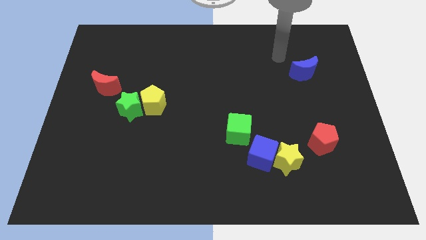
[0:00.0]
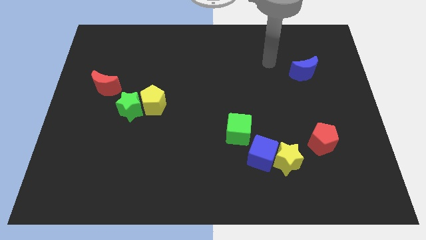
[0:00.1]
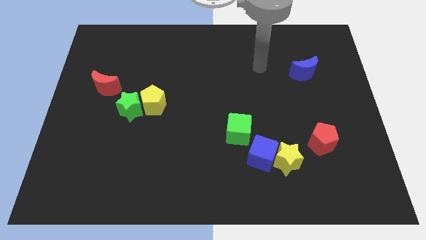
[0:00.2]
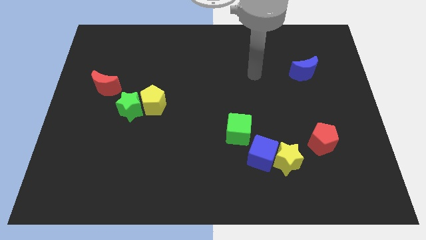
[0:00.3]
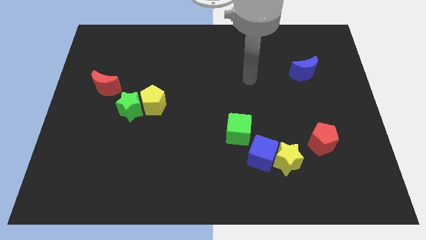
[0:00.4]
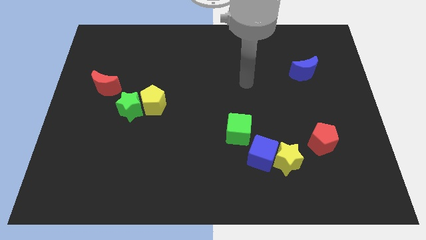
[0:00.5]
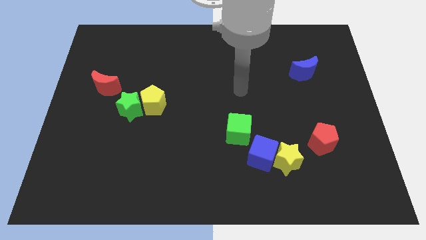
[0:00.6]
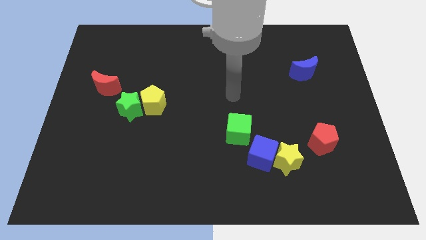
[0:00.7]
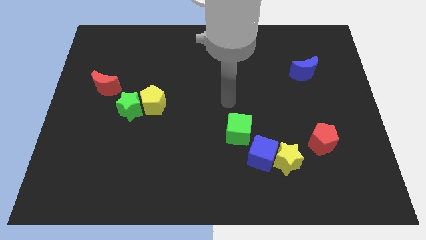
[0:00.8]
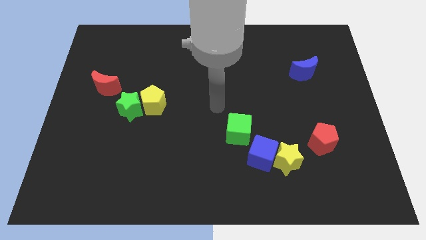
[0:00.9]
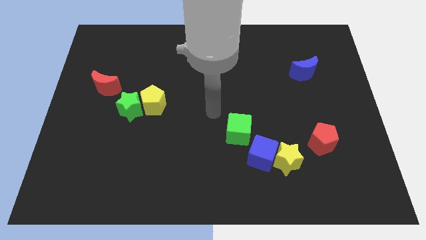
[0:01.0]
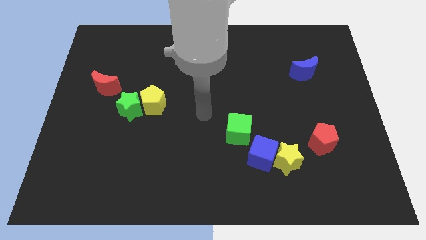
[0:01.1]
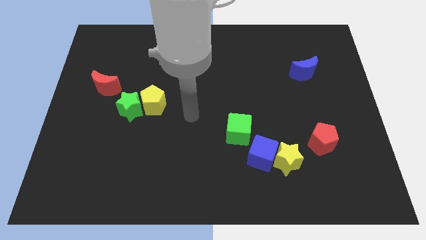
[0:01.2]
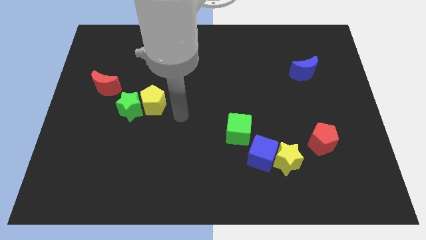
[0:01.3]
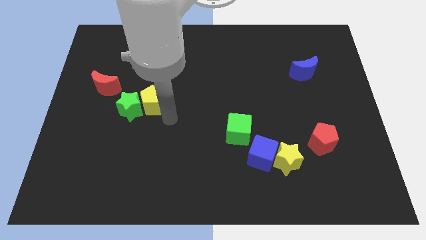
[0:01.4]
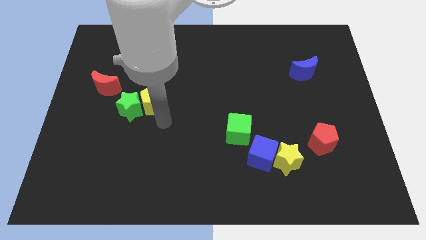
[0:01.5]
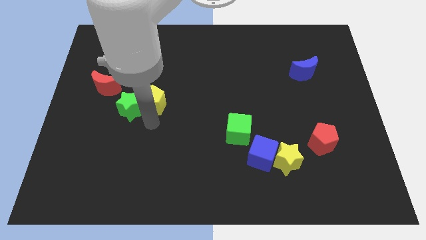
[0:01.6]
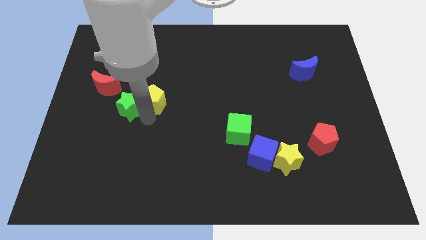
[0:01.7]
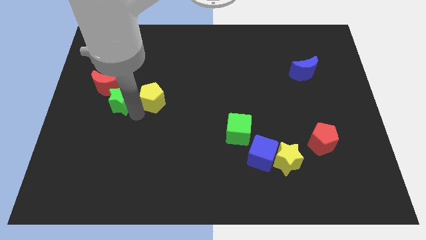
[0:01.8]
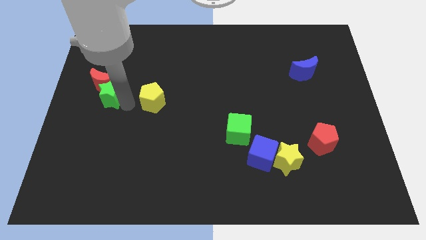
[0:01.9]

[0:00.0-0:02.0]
pull the yellow pentagon apart from the green star

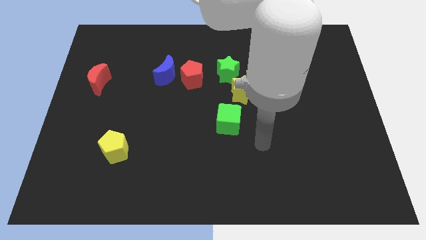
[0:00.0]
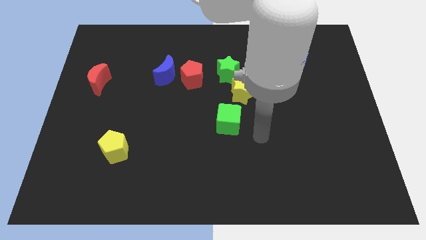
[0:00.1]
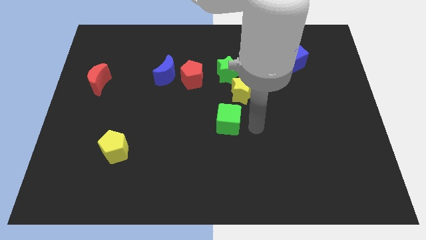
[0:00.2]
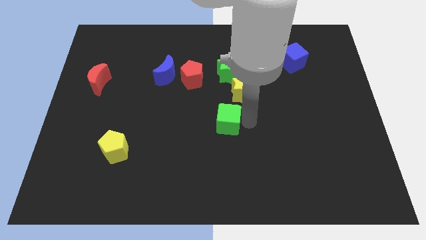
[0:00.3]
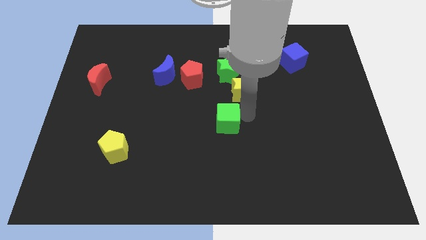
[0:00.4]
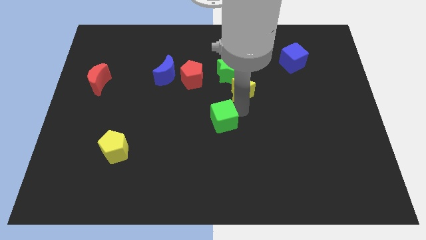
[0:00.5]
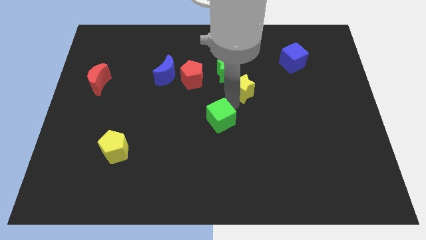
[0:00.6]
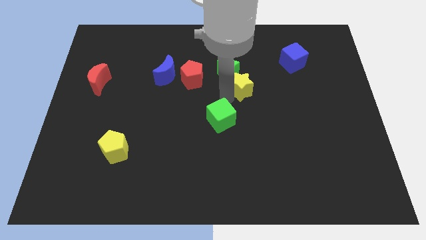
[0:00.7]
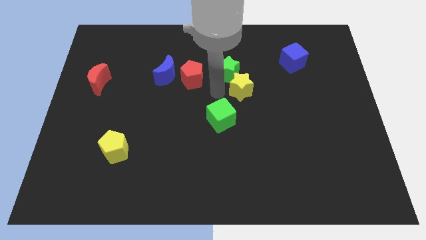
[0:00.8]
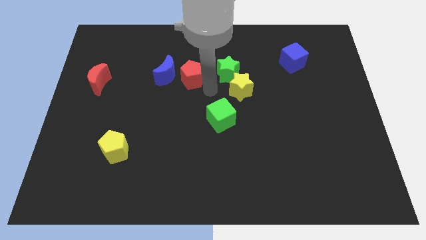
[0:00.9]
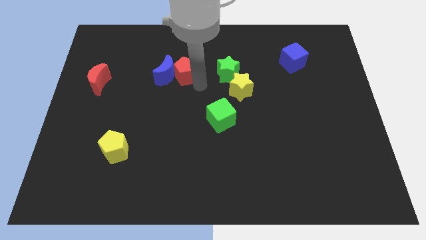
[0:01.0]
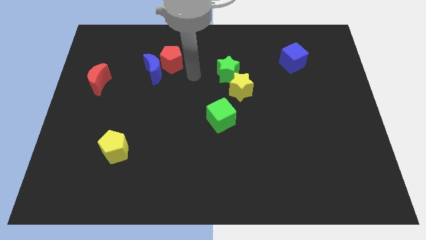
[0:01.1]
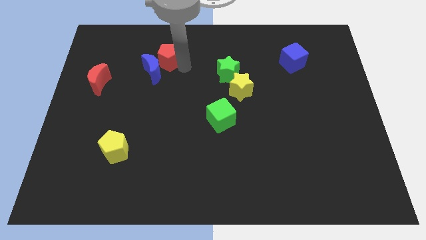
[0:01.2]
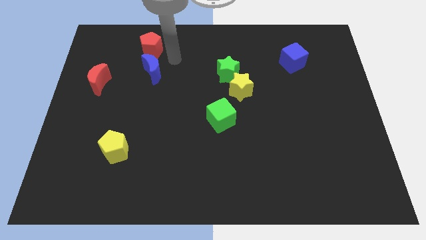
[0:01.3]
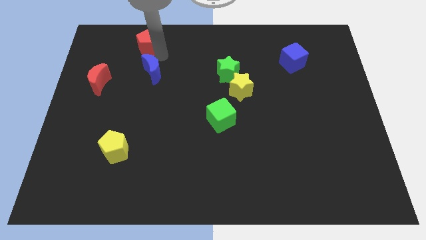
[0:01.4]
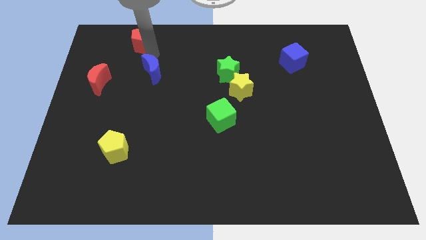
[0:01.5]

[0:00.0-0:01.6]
move the blue moon away from the red pentagon

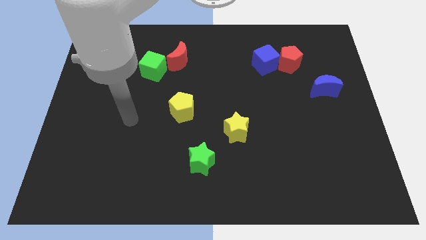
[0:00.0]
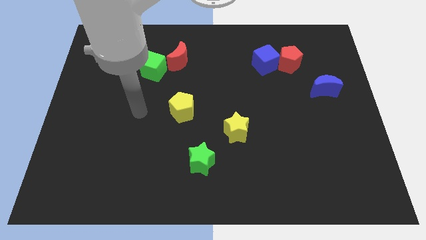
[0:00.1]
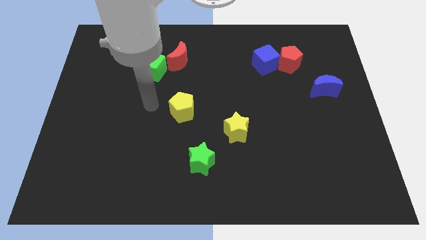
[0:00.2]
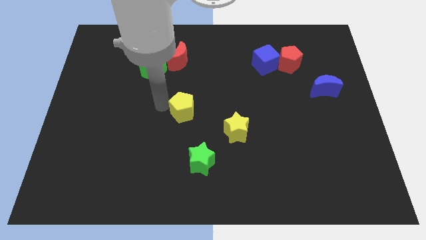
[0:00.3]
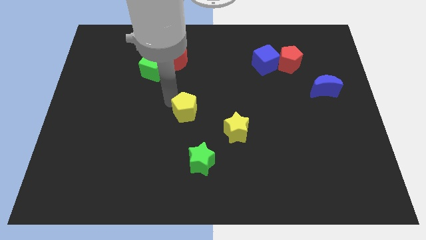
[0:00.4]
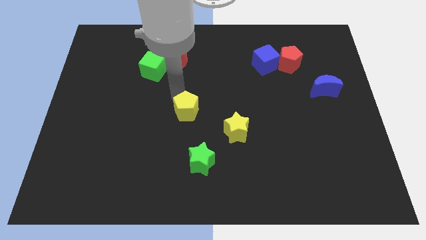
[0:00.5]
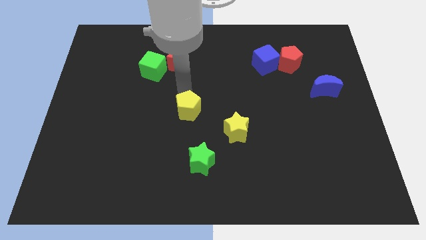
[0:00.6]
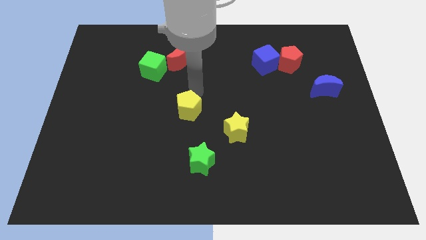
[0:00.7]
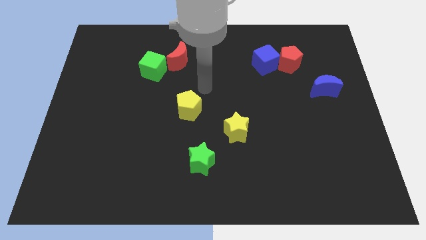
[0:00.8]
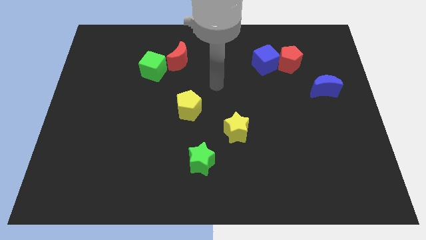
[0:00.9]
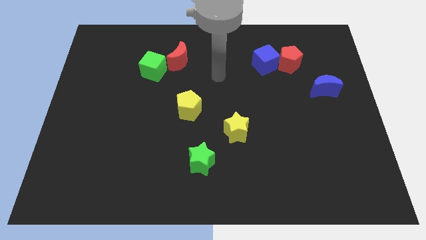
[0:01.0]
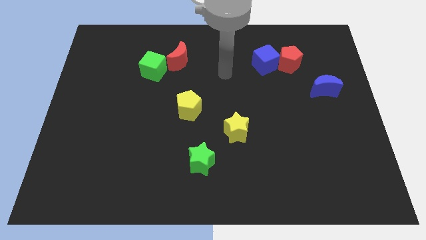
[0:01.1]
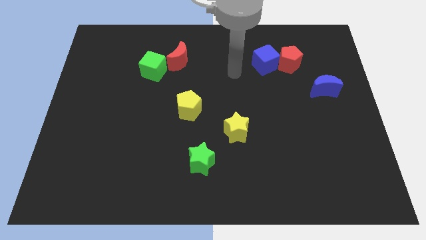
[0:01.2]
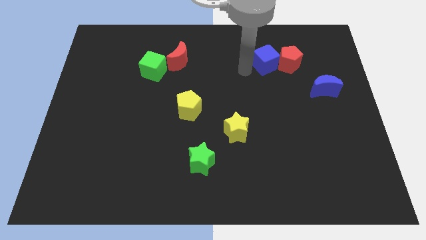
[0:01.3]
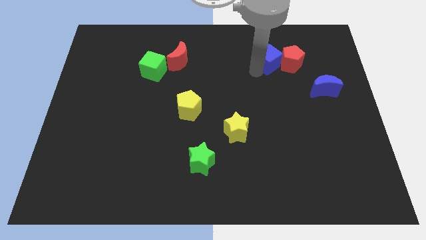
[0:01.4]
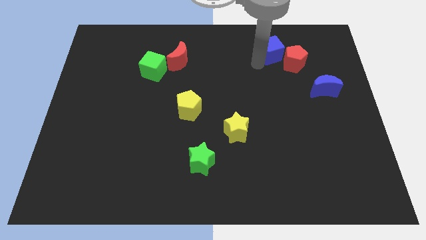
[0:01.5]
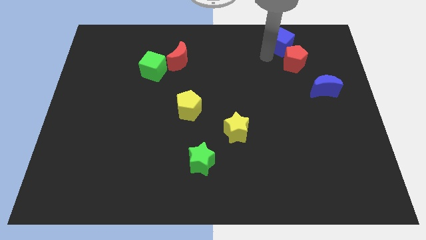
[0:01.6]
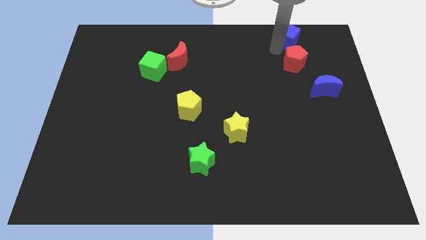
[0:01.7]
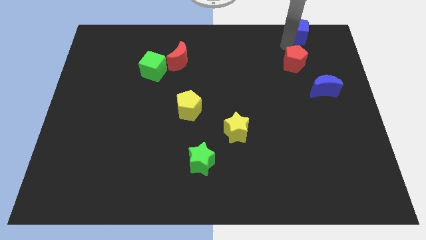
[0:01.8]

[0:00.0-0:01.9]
pull the red pentagon apart from the blue cube

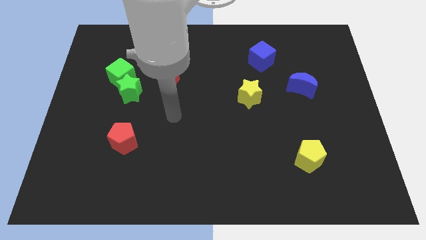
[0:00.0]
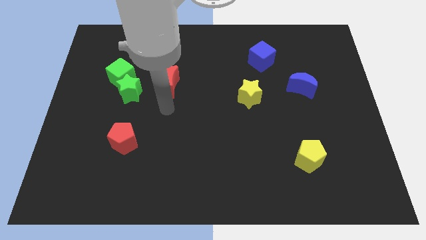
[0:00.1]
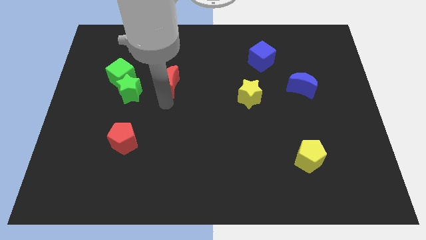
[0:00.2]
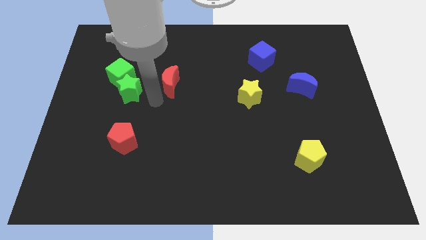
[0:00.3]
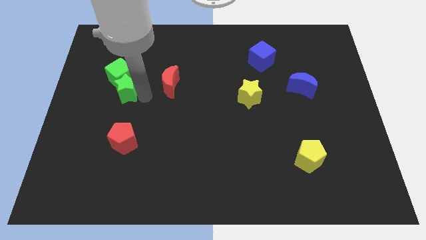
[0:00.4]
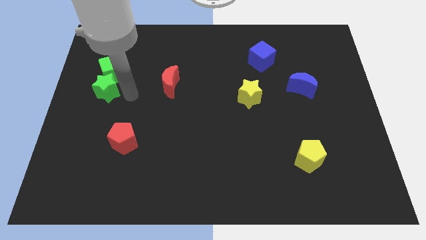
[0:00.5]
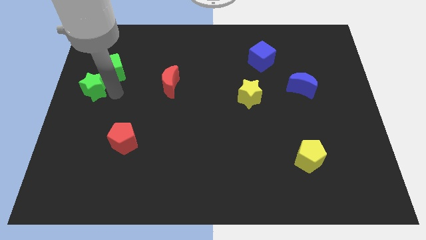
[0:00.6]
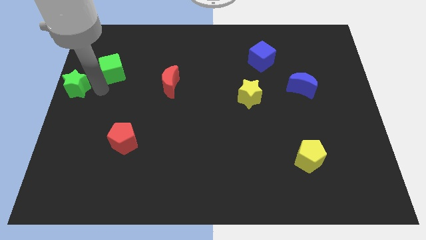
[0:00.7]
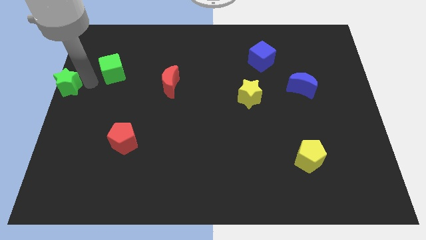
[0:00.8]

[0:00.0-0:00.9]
separate the green cube from the green star

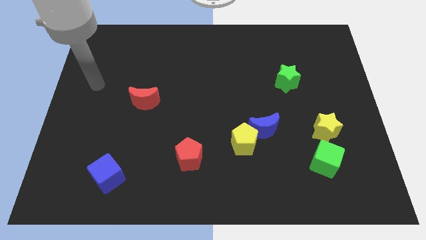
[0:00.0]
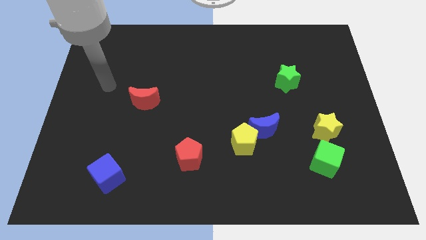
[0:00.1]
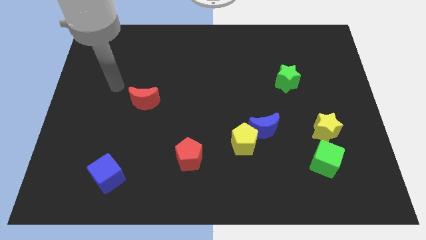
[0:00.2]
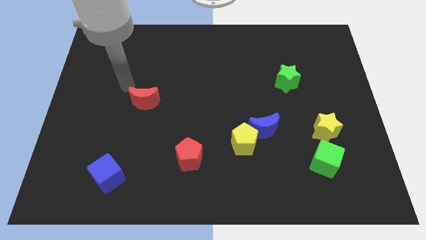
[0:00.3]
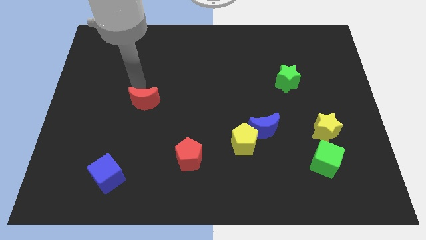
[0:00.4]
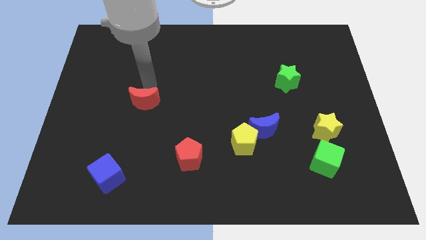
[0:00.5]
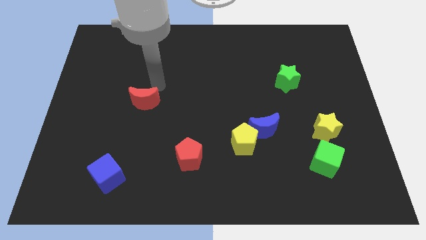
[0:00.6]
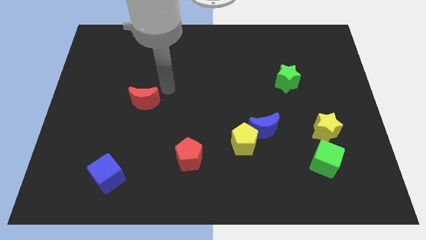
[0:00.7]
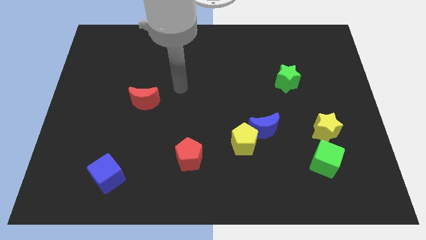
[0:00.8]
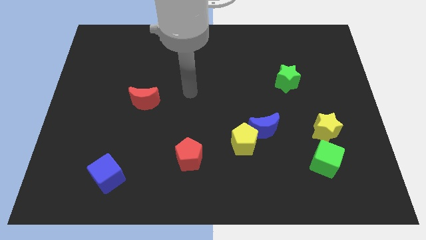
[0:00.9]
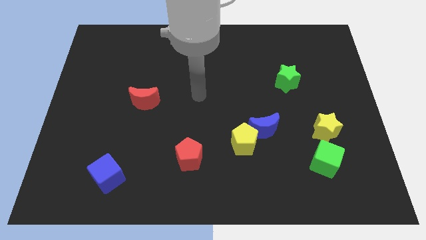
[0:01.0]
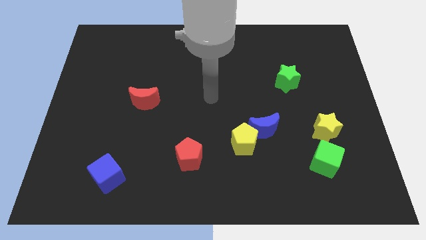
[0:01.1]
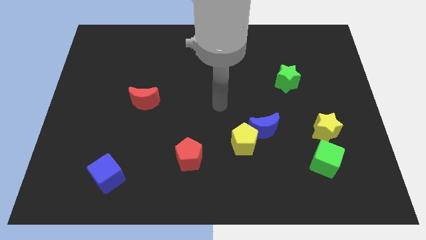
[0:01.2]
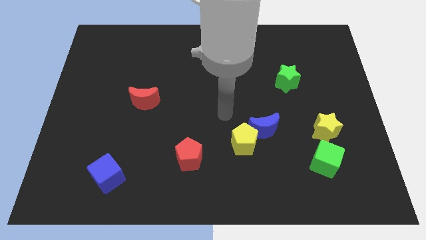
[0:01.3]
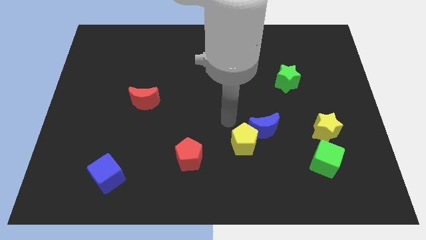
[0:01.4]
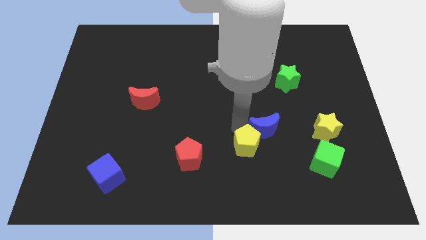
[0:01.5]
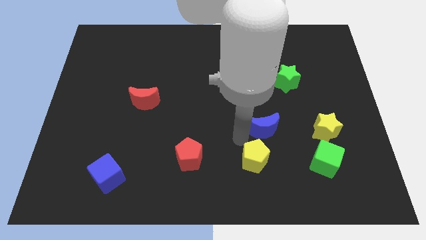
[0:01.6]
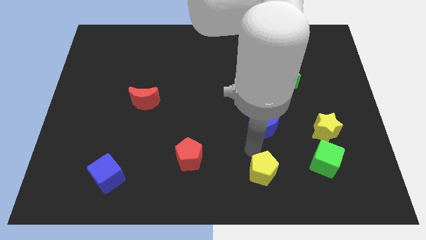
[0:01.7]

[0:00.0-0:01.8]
separate the blue moon from the yellow pentagon

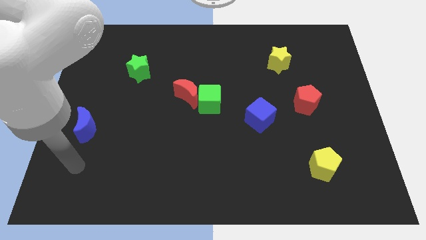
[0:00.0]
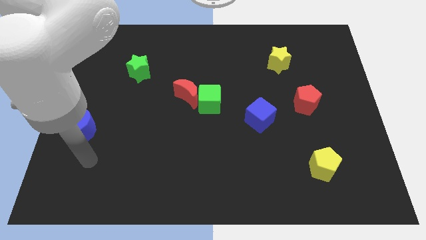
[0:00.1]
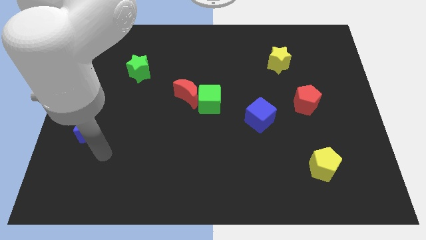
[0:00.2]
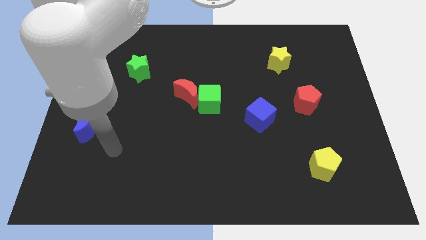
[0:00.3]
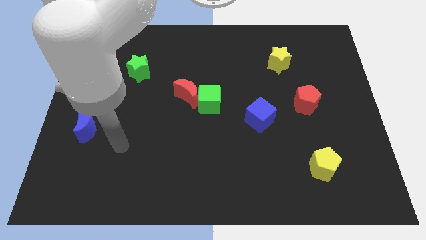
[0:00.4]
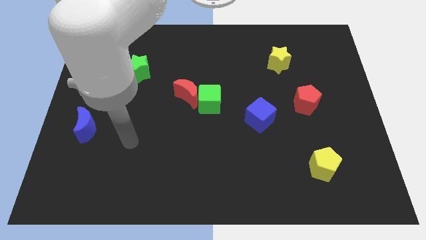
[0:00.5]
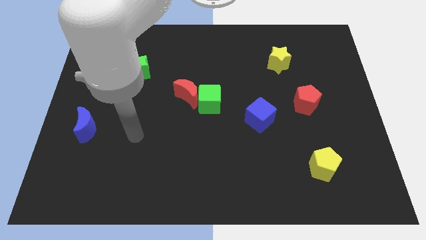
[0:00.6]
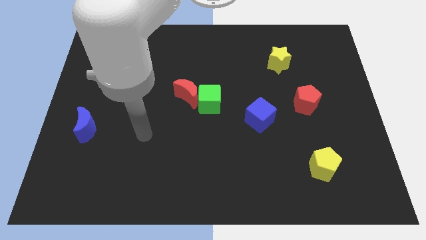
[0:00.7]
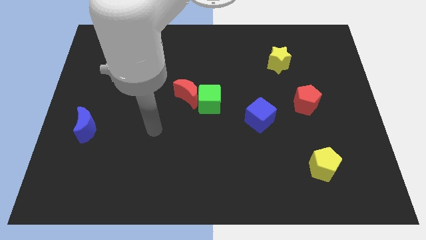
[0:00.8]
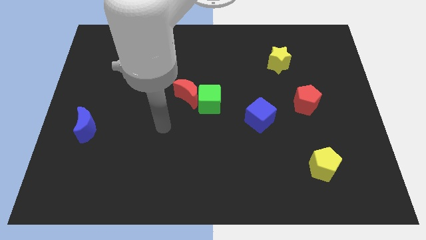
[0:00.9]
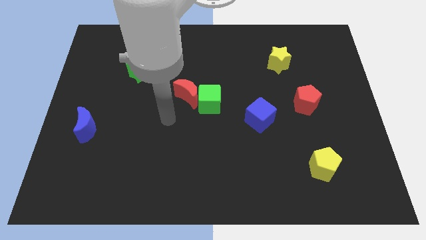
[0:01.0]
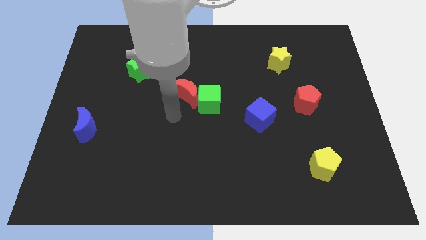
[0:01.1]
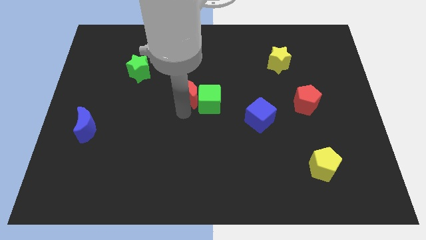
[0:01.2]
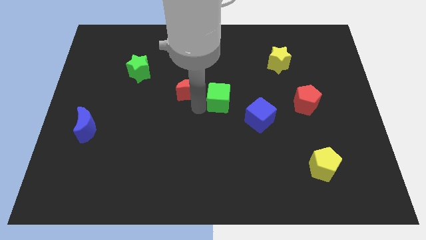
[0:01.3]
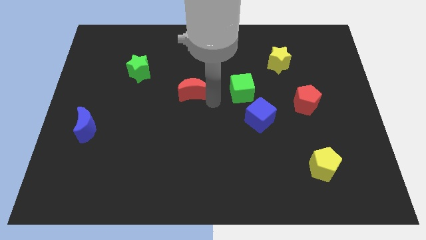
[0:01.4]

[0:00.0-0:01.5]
separate the red moon from the green cube
